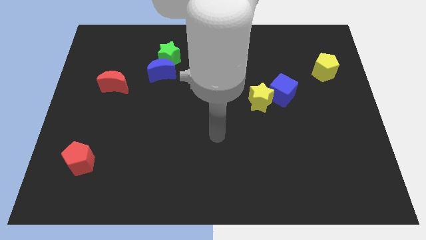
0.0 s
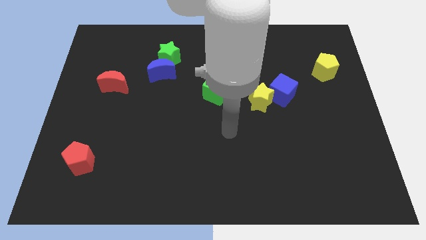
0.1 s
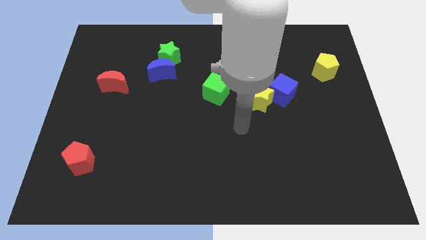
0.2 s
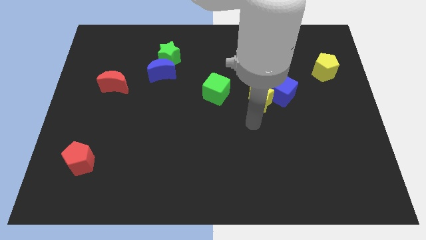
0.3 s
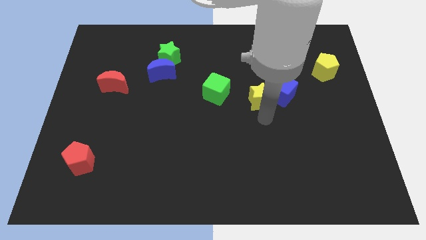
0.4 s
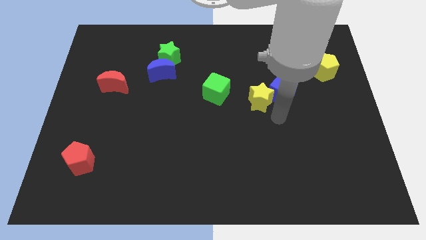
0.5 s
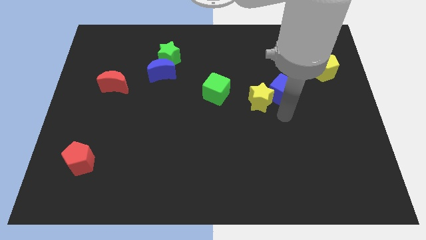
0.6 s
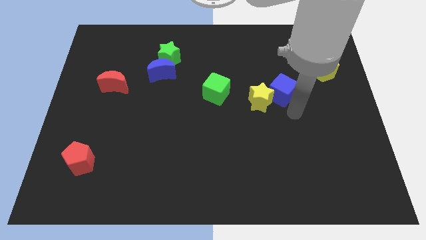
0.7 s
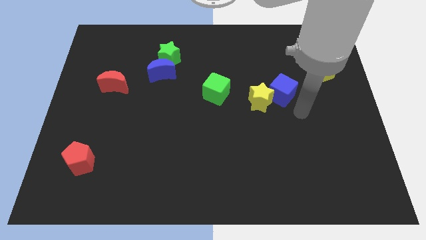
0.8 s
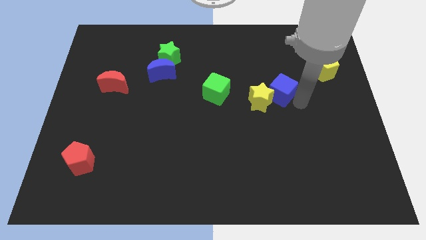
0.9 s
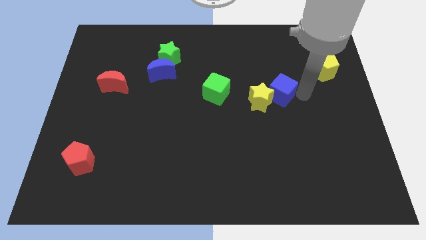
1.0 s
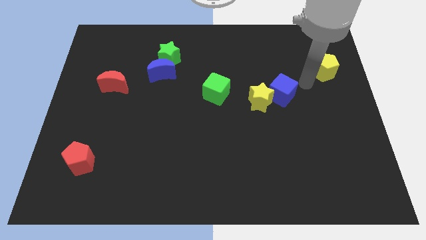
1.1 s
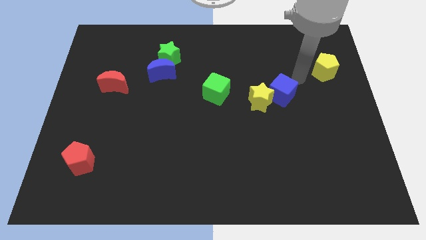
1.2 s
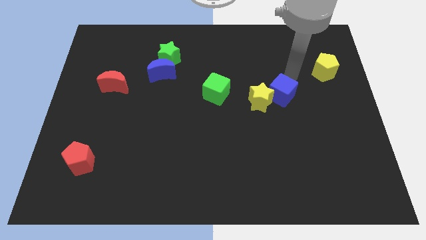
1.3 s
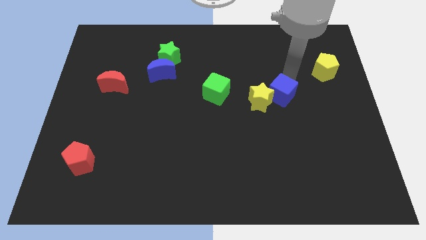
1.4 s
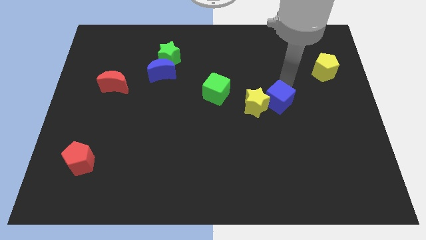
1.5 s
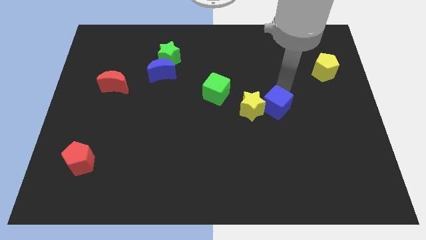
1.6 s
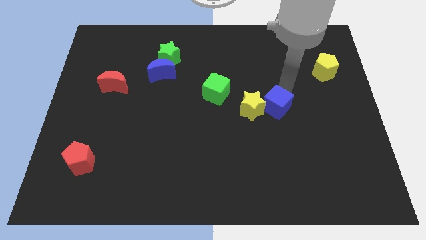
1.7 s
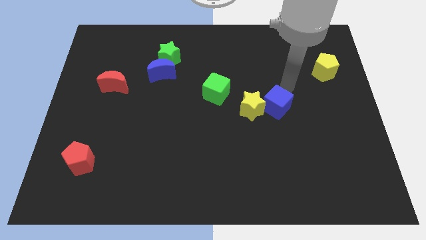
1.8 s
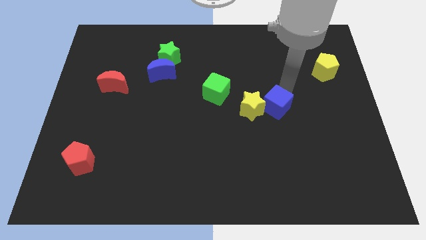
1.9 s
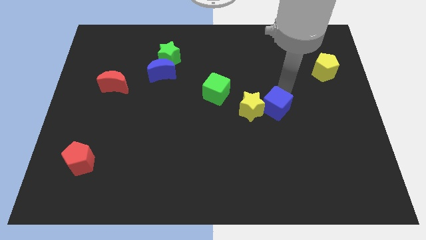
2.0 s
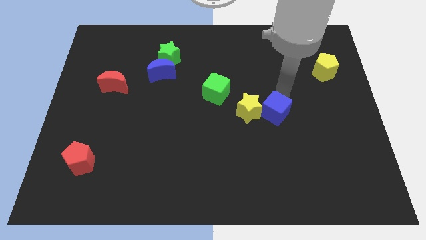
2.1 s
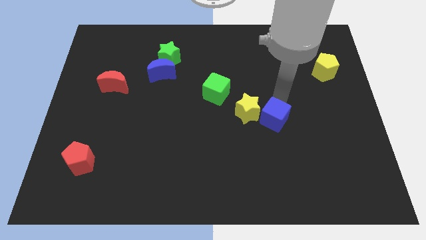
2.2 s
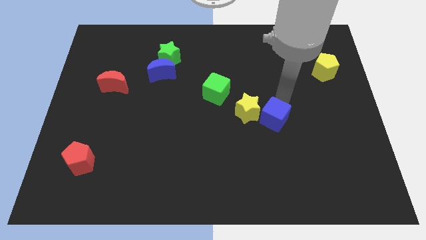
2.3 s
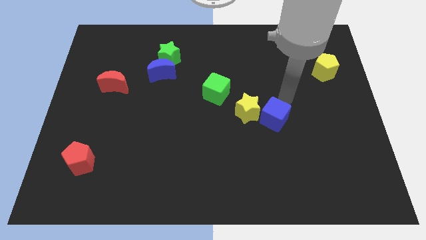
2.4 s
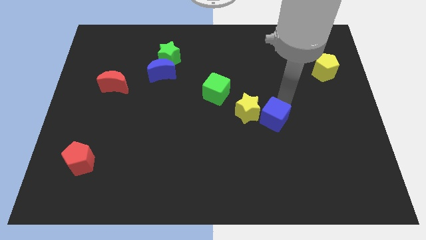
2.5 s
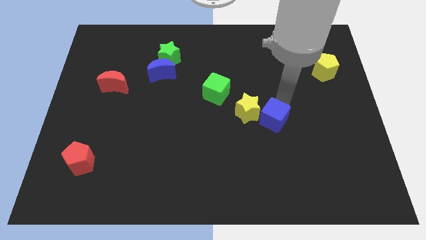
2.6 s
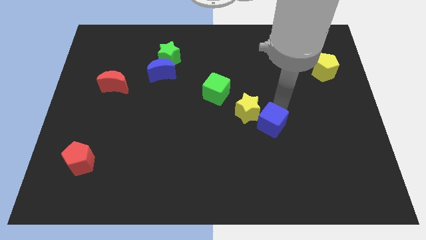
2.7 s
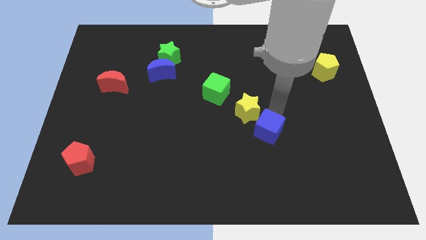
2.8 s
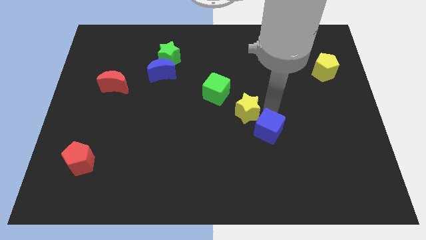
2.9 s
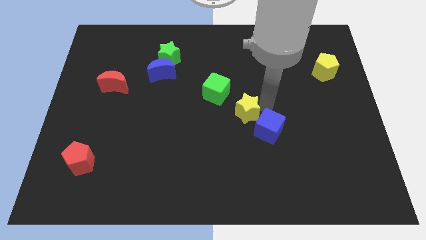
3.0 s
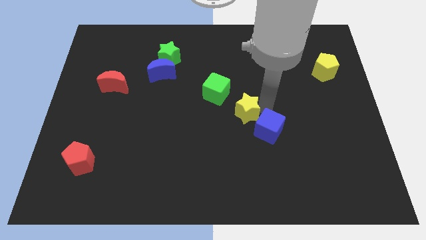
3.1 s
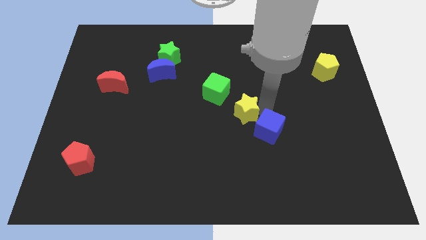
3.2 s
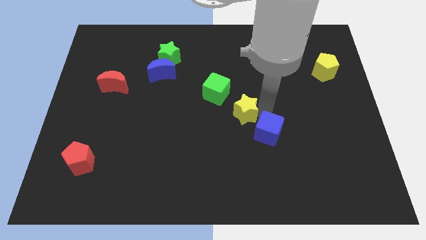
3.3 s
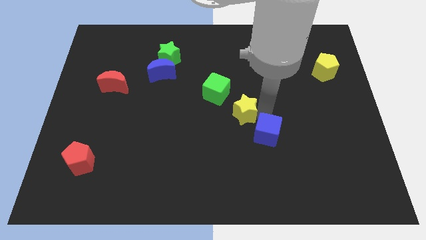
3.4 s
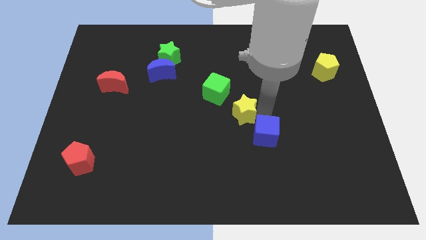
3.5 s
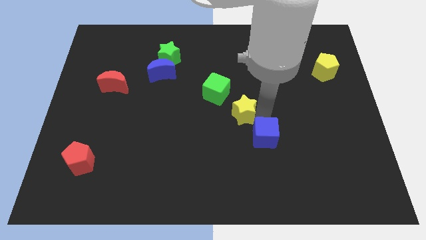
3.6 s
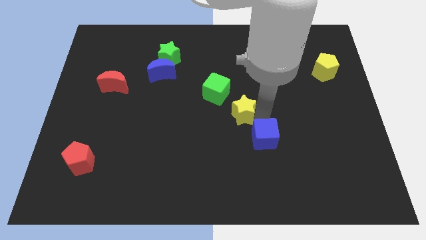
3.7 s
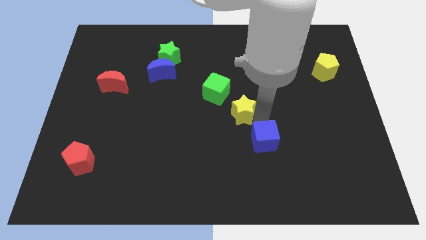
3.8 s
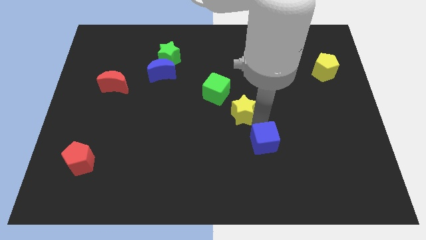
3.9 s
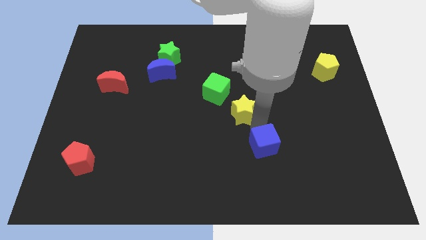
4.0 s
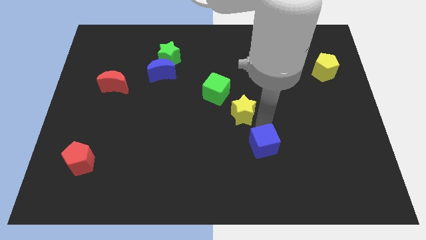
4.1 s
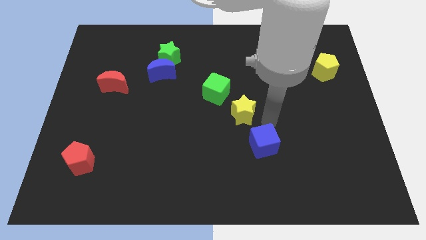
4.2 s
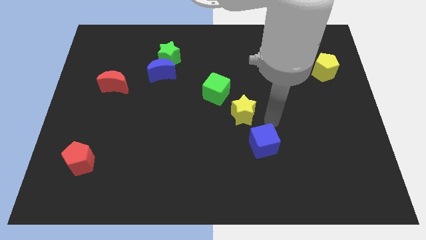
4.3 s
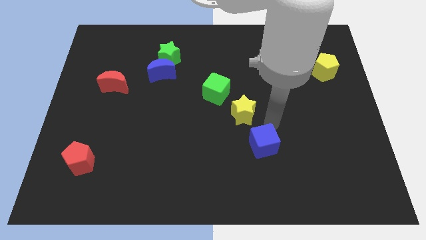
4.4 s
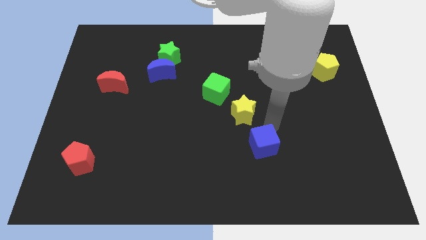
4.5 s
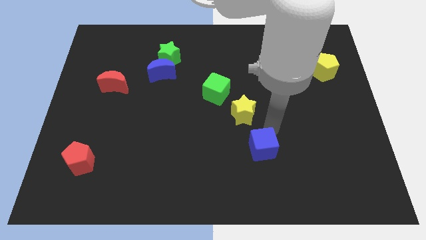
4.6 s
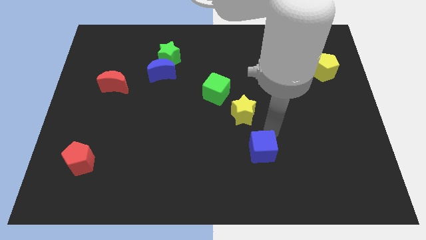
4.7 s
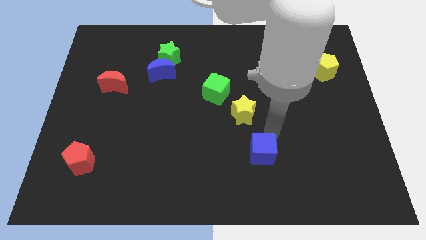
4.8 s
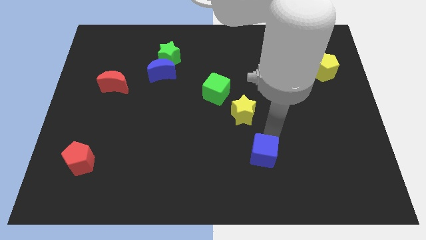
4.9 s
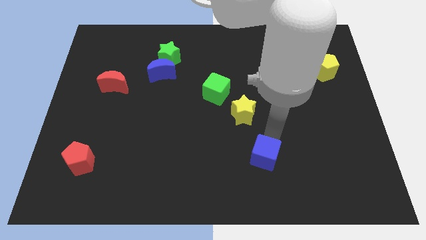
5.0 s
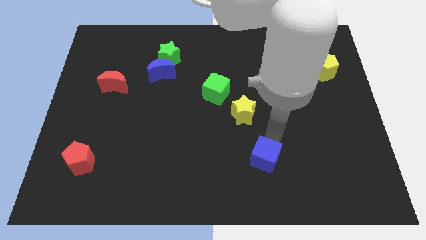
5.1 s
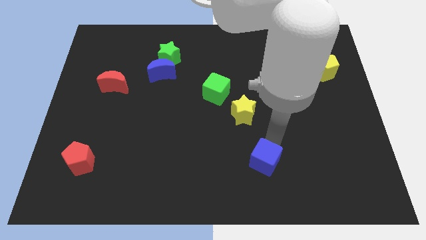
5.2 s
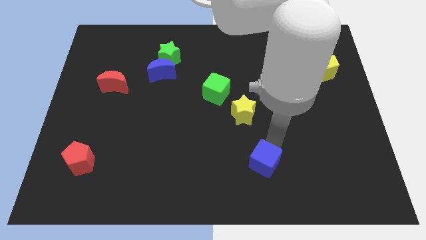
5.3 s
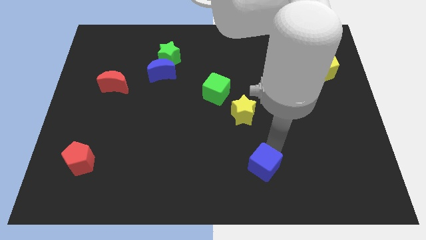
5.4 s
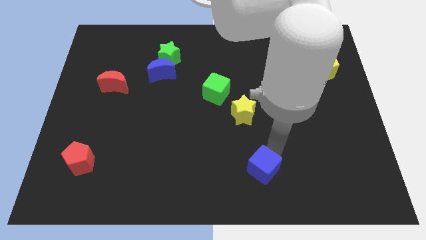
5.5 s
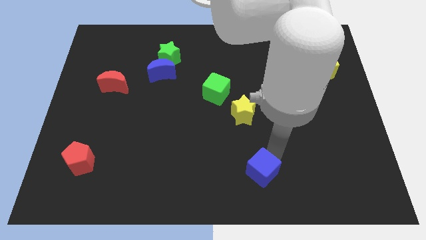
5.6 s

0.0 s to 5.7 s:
put the blue cube to the bottom side

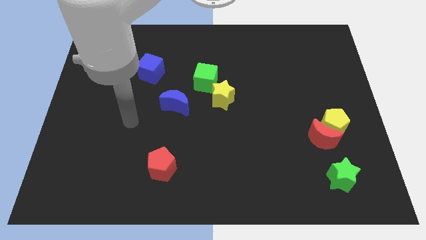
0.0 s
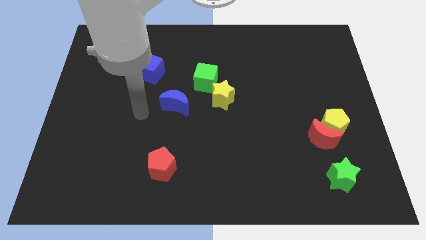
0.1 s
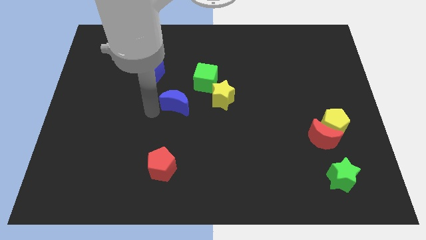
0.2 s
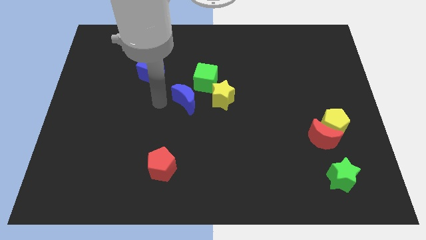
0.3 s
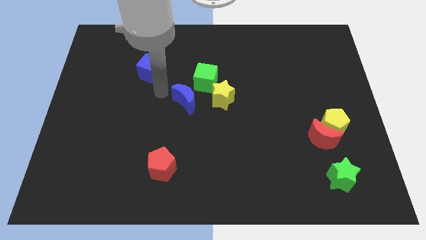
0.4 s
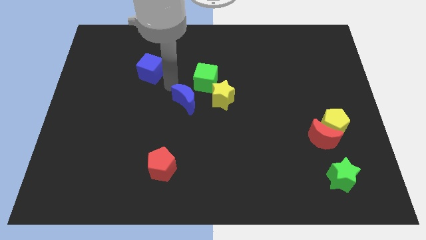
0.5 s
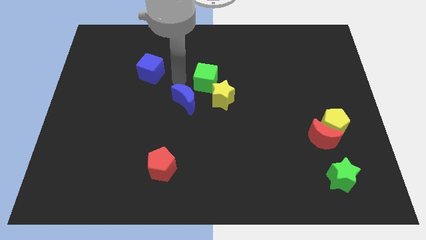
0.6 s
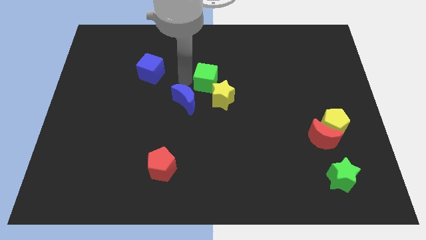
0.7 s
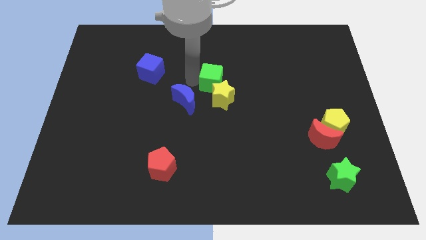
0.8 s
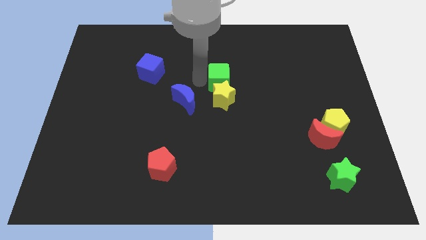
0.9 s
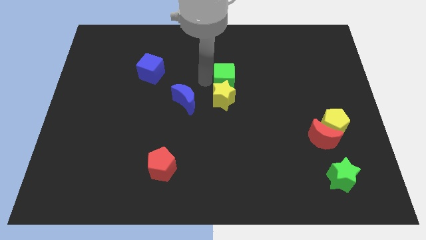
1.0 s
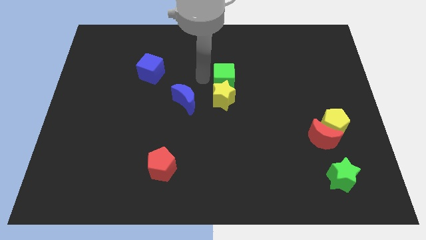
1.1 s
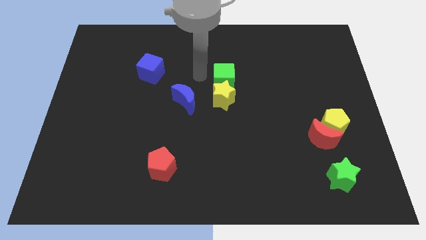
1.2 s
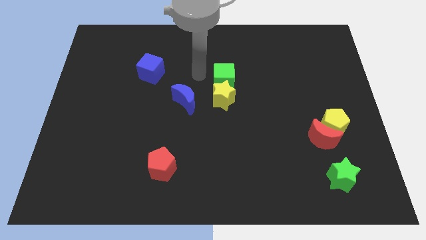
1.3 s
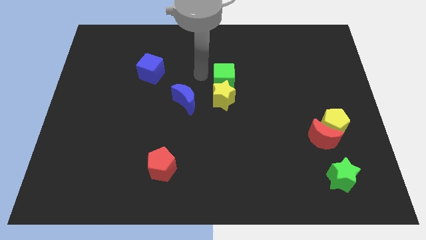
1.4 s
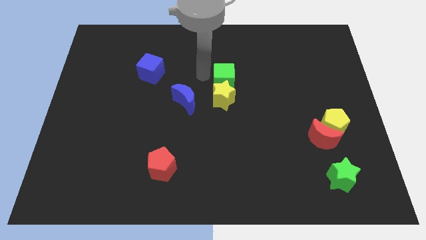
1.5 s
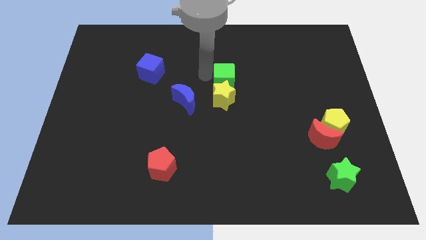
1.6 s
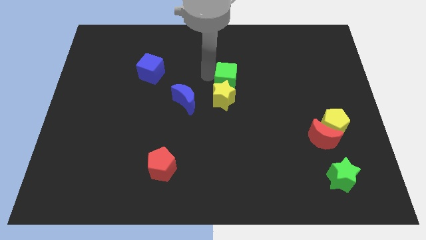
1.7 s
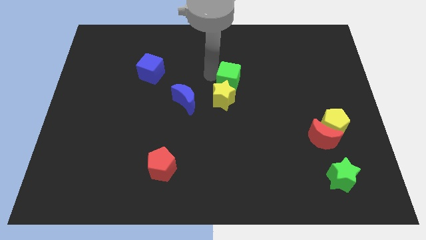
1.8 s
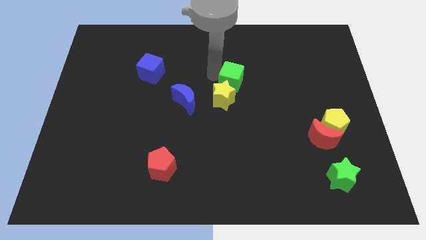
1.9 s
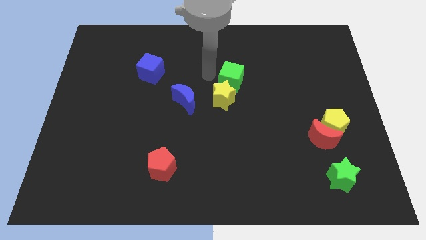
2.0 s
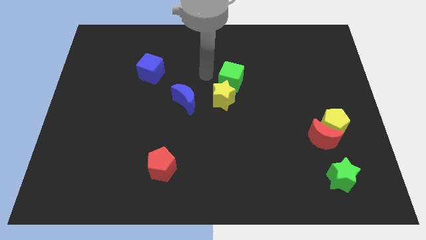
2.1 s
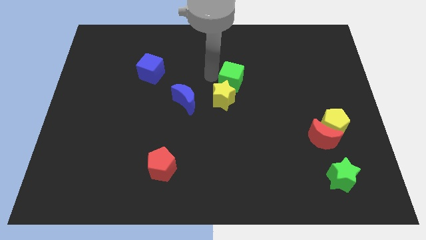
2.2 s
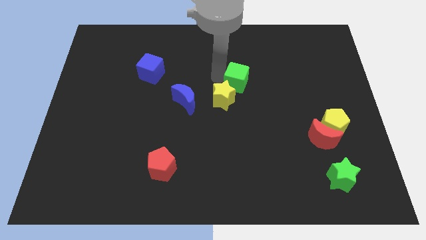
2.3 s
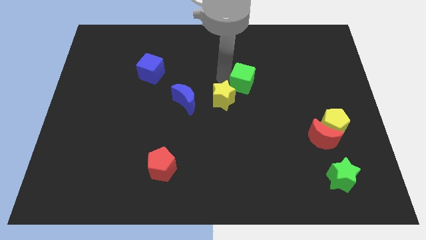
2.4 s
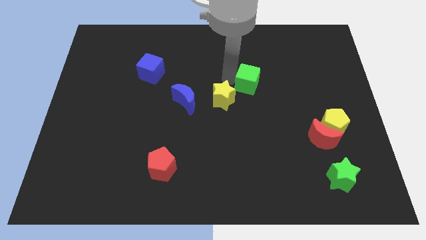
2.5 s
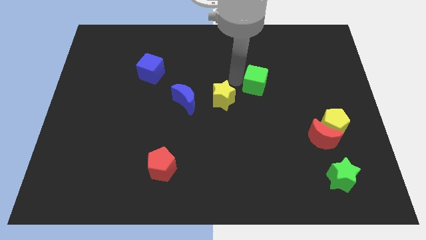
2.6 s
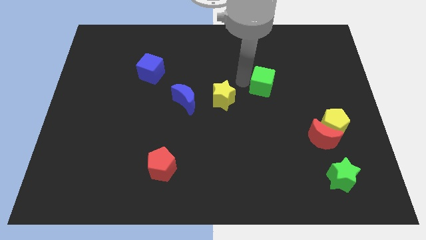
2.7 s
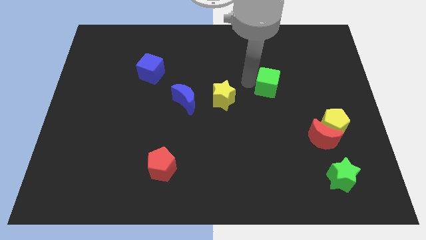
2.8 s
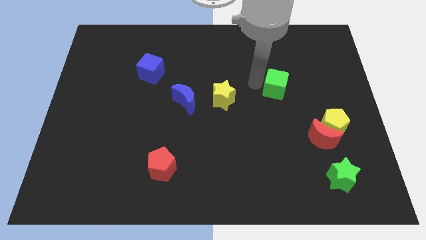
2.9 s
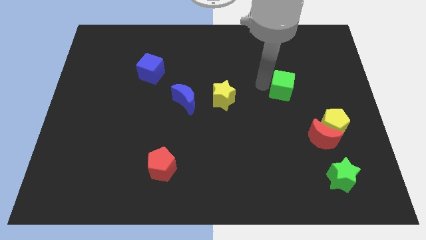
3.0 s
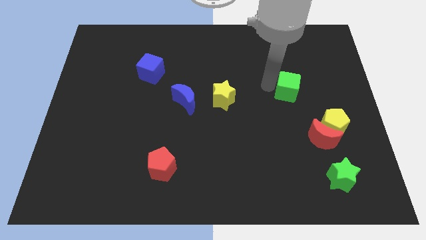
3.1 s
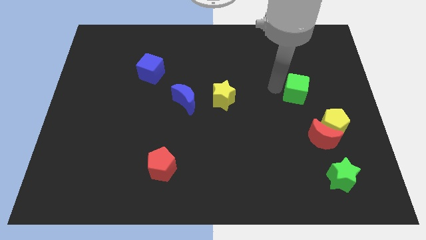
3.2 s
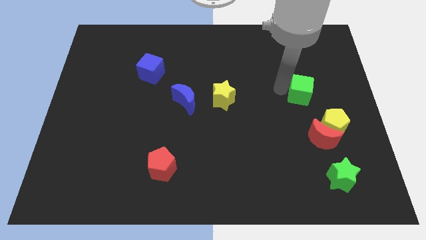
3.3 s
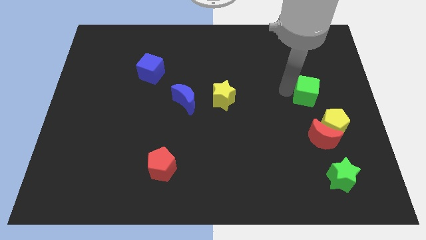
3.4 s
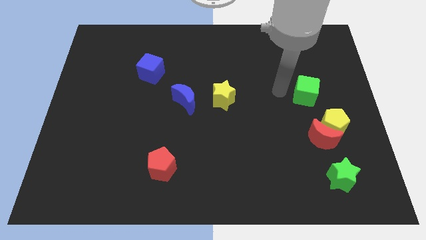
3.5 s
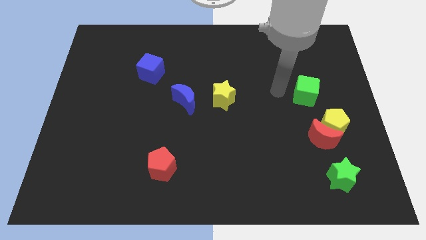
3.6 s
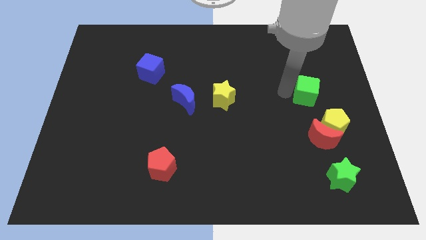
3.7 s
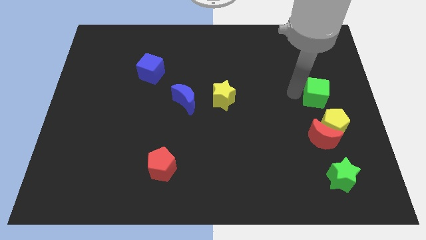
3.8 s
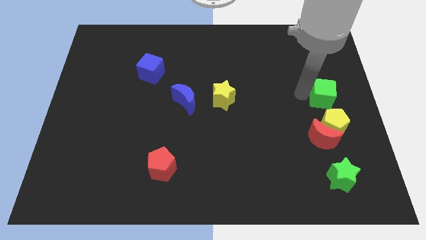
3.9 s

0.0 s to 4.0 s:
put the green cube to the center right
